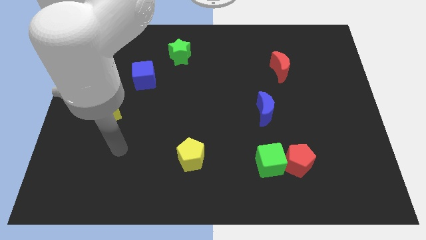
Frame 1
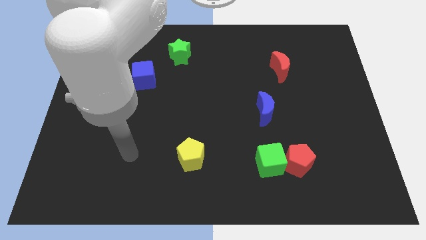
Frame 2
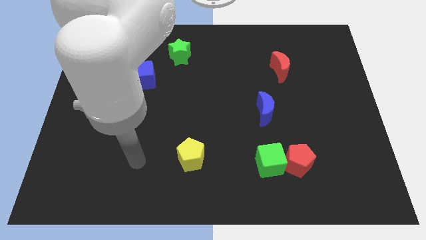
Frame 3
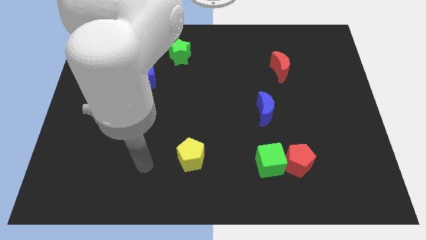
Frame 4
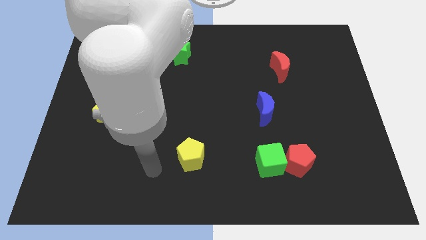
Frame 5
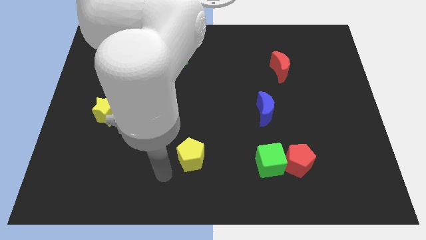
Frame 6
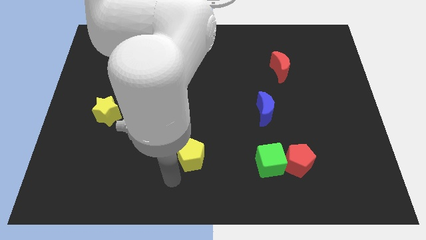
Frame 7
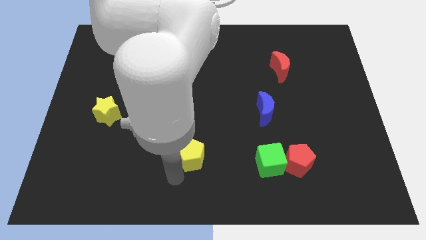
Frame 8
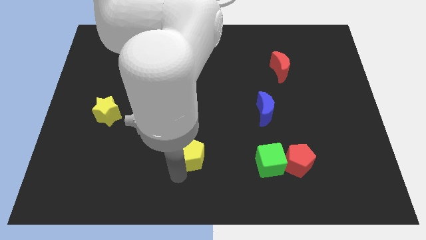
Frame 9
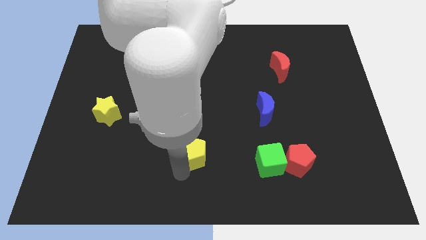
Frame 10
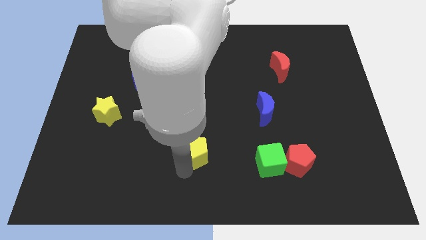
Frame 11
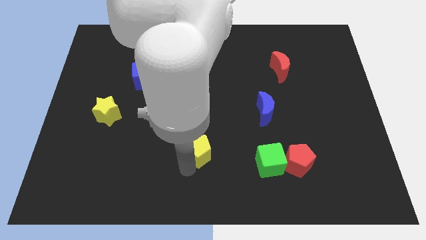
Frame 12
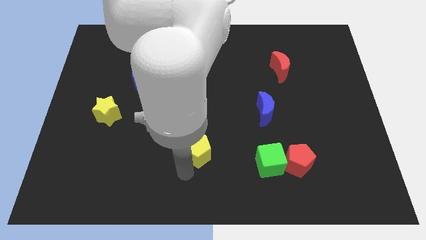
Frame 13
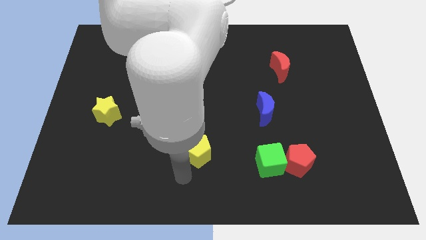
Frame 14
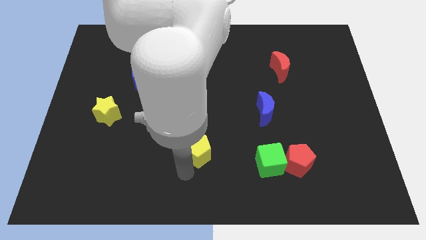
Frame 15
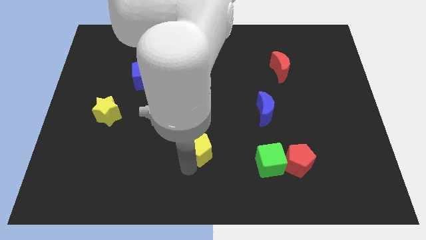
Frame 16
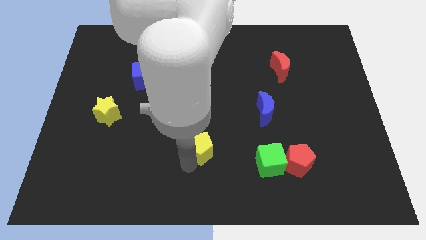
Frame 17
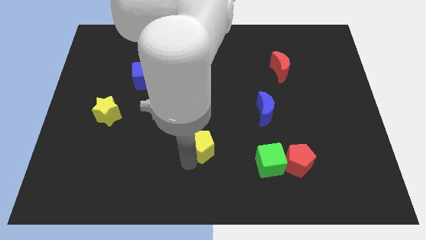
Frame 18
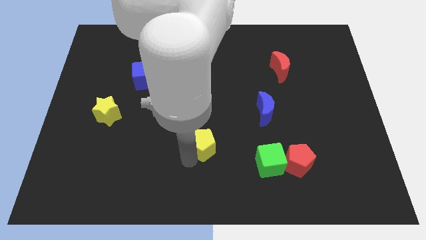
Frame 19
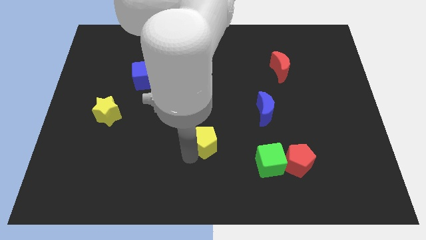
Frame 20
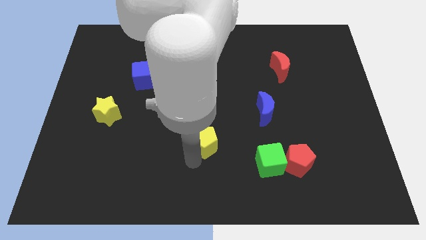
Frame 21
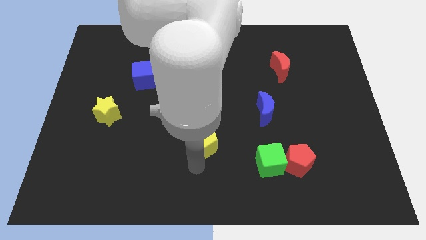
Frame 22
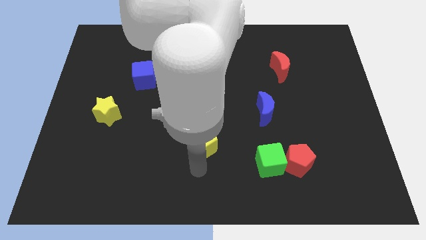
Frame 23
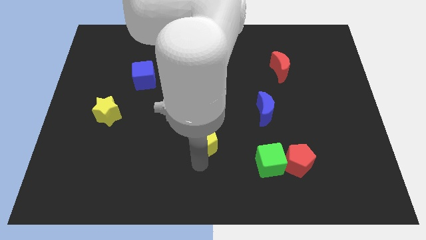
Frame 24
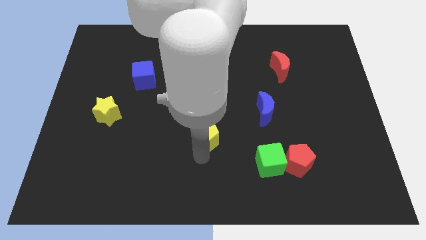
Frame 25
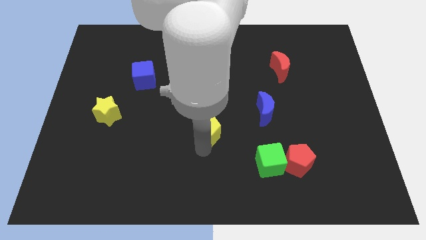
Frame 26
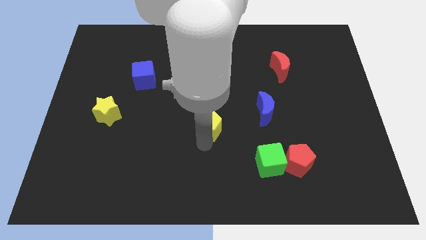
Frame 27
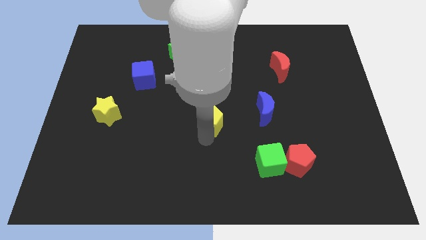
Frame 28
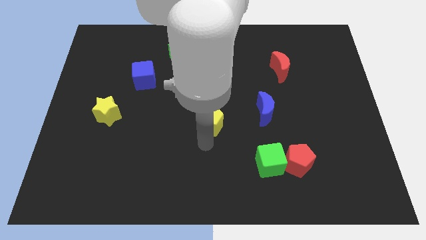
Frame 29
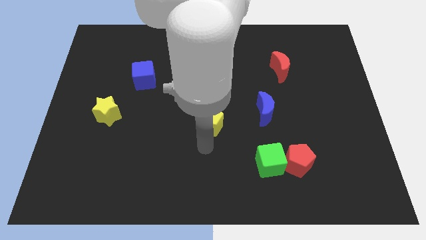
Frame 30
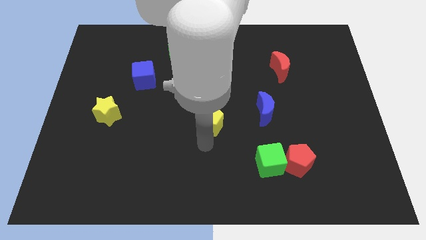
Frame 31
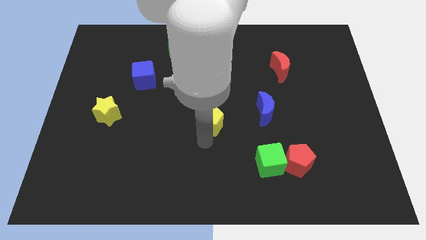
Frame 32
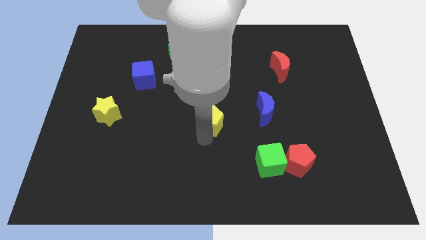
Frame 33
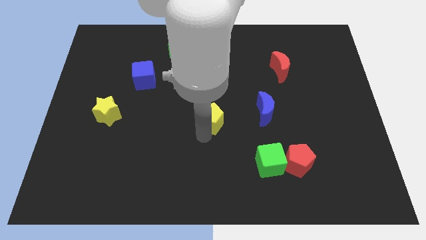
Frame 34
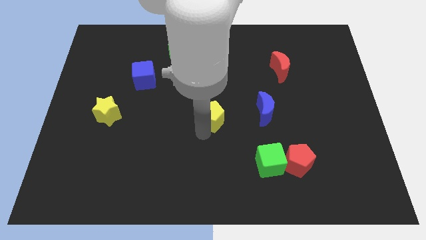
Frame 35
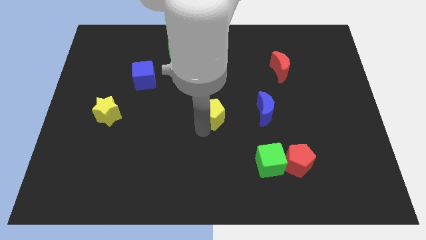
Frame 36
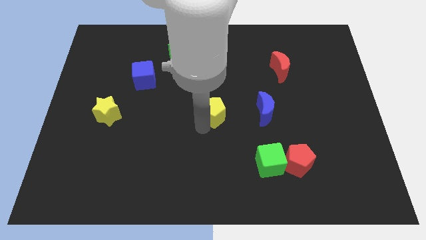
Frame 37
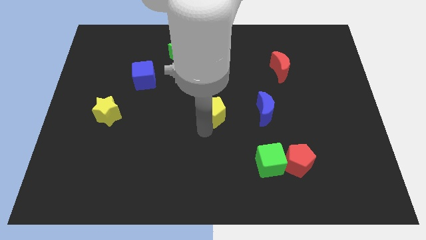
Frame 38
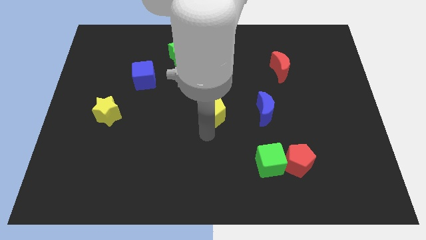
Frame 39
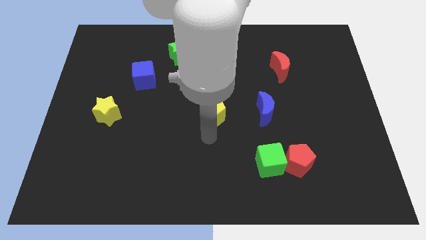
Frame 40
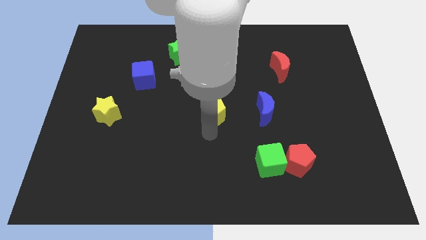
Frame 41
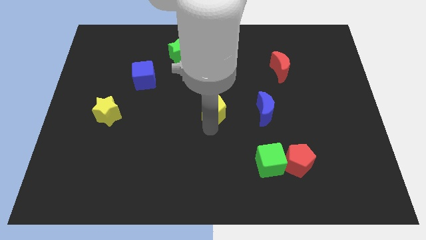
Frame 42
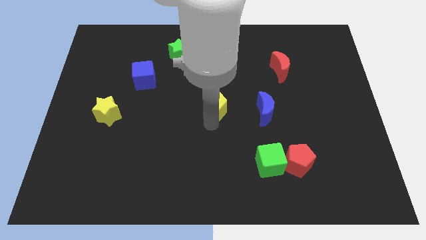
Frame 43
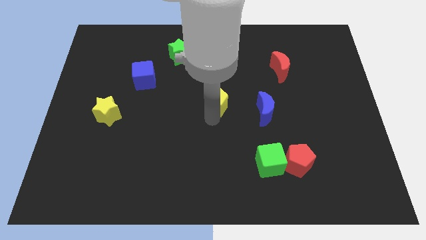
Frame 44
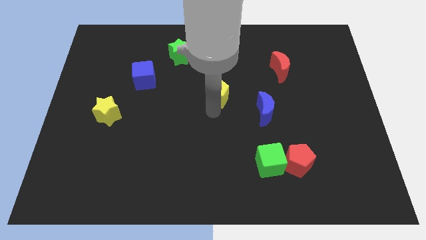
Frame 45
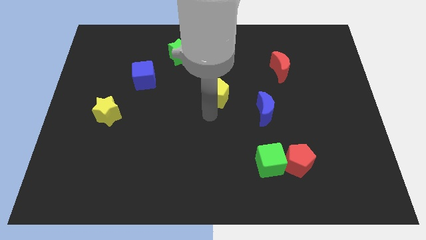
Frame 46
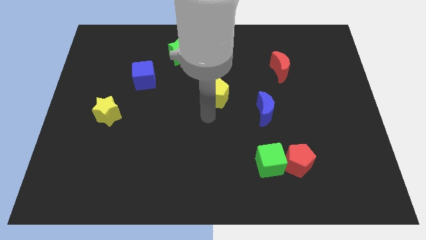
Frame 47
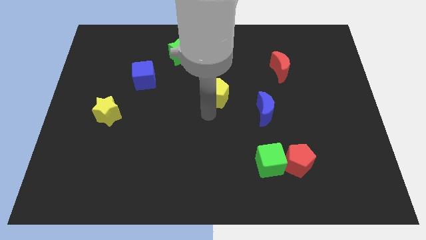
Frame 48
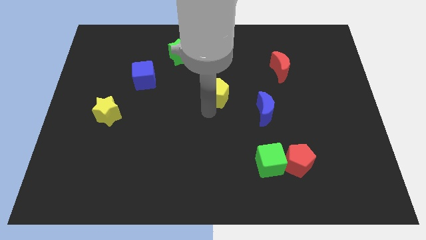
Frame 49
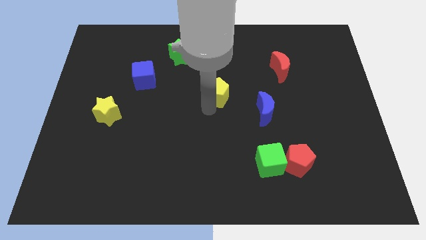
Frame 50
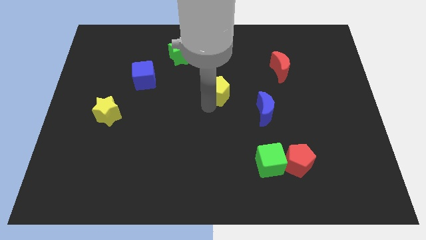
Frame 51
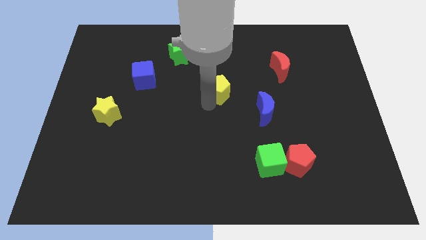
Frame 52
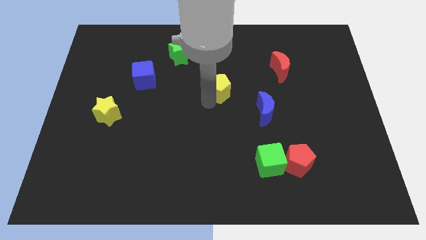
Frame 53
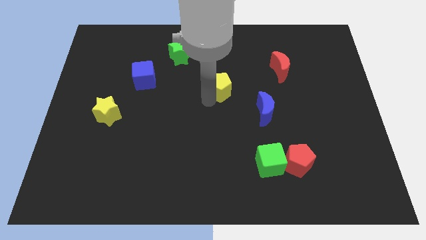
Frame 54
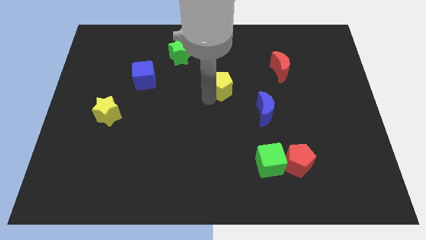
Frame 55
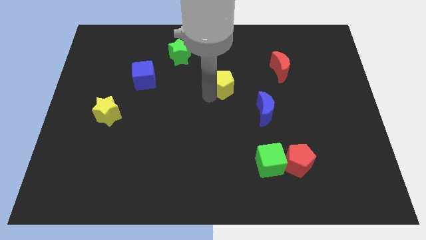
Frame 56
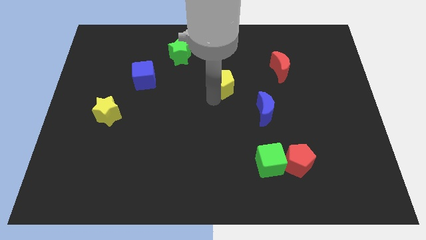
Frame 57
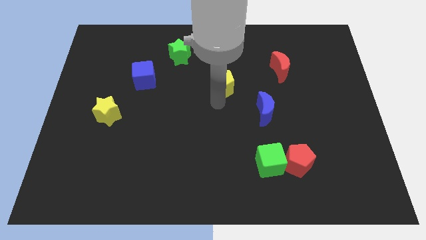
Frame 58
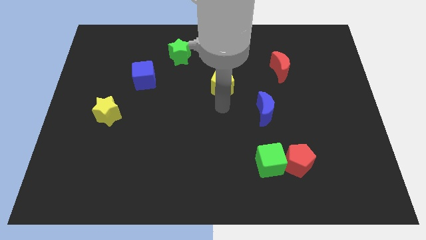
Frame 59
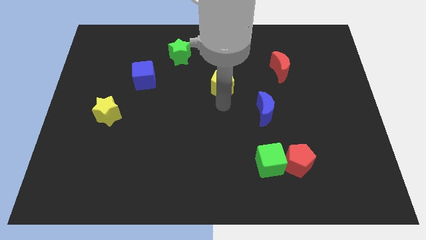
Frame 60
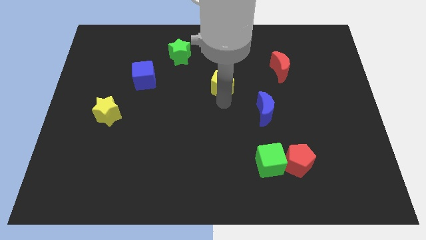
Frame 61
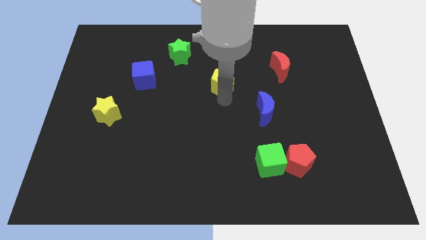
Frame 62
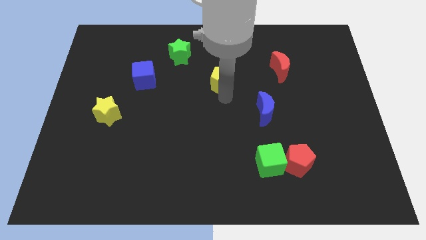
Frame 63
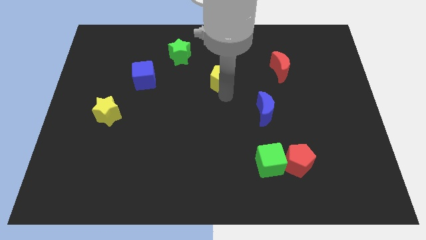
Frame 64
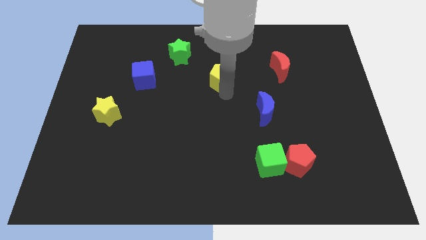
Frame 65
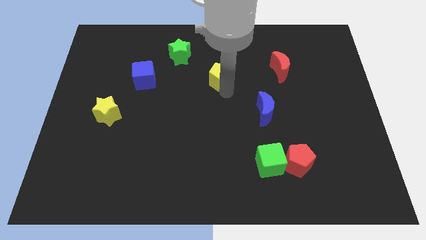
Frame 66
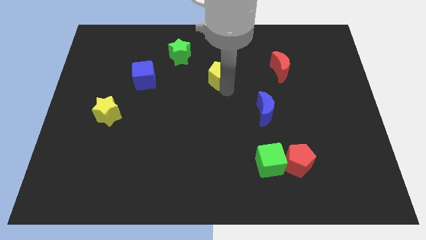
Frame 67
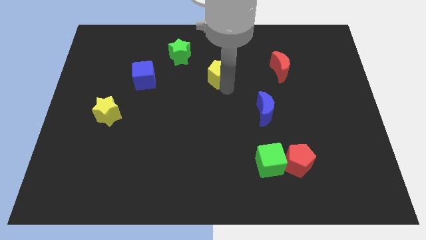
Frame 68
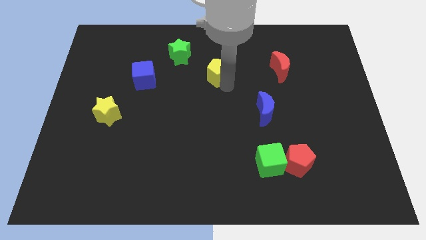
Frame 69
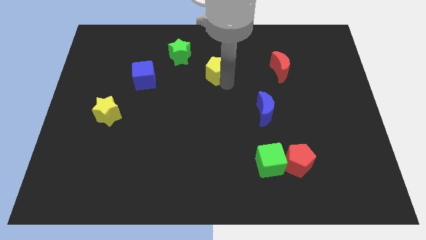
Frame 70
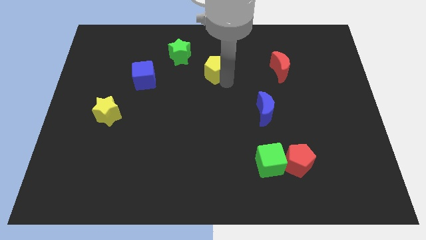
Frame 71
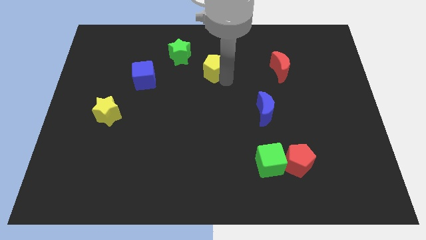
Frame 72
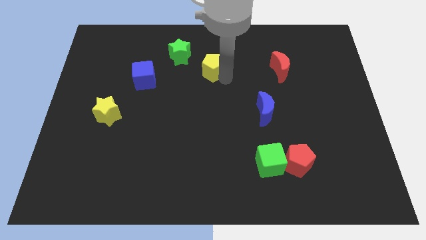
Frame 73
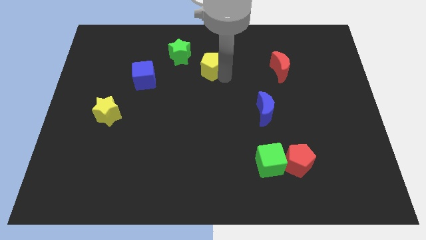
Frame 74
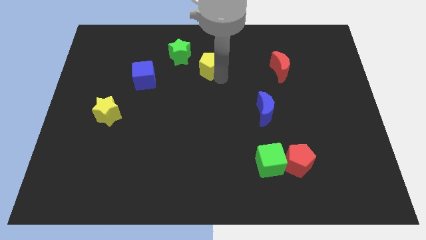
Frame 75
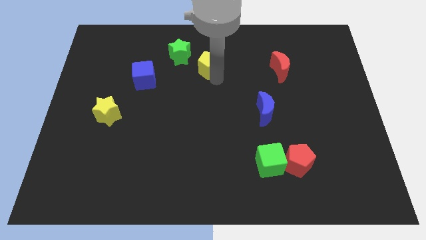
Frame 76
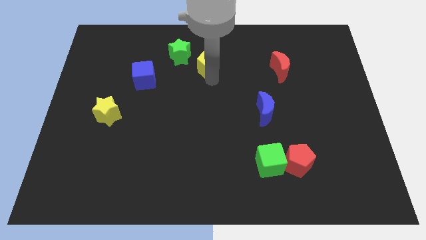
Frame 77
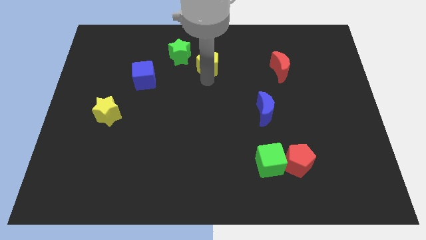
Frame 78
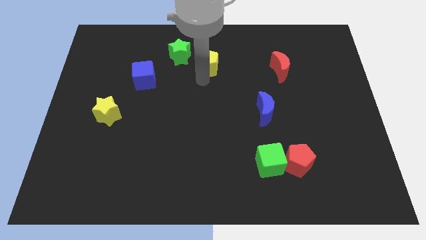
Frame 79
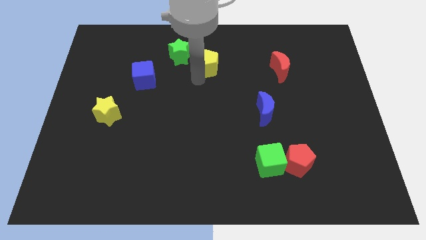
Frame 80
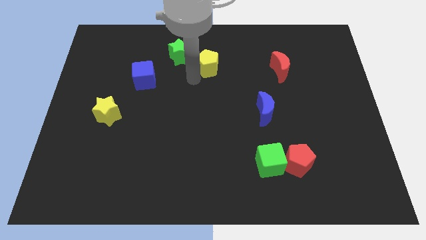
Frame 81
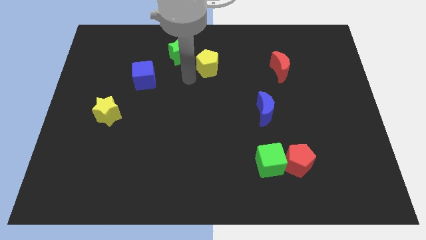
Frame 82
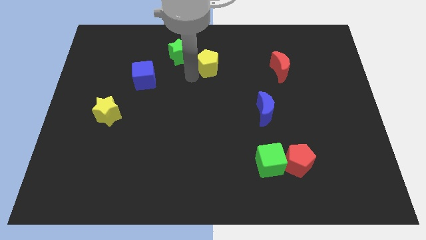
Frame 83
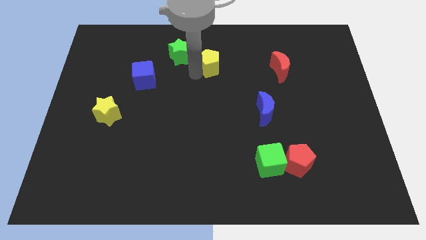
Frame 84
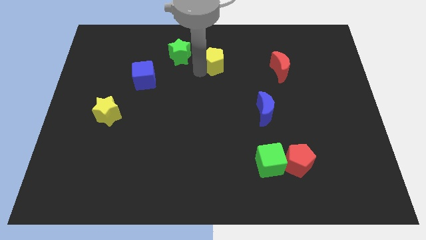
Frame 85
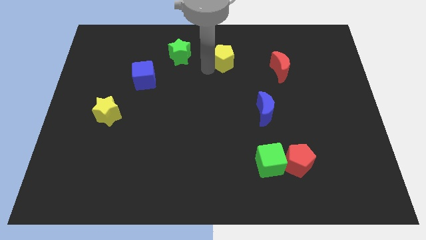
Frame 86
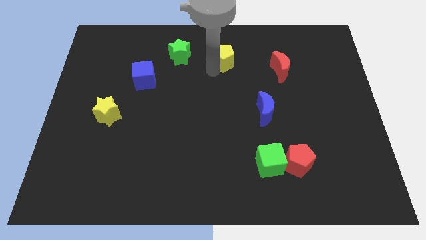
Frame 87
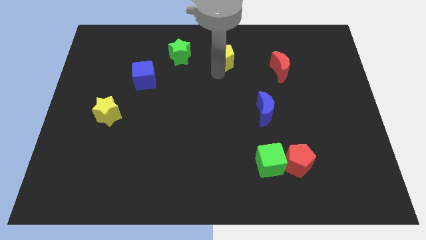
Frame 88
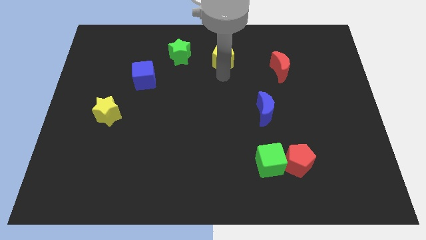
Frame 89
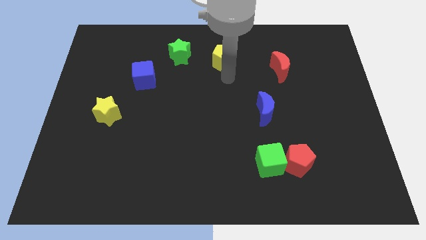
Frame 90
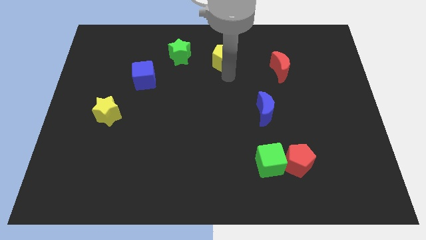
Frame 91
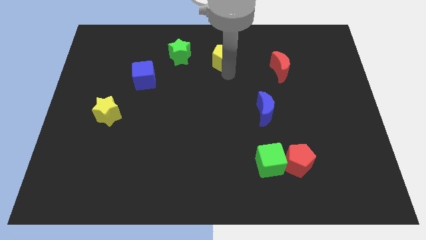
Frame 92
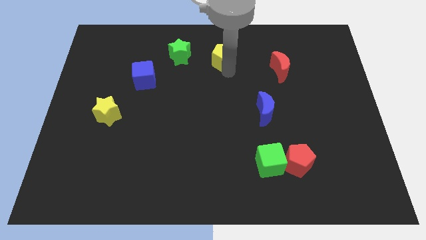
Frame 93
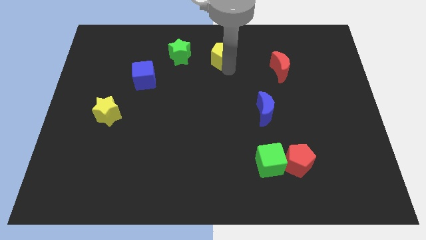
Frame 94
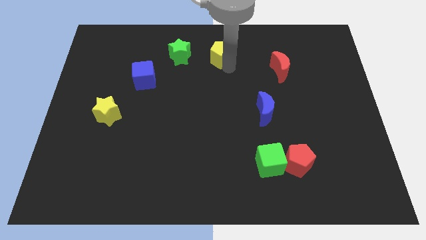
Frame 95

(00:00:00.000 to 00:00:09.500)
slide the yellow pentagon to the towards your base
